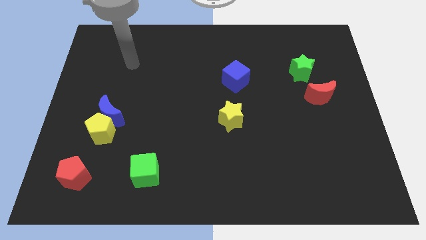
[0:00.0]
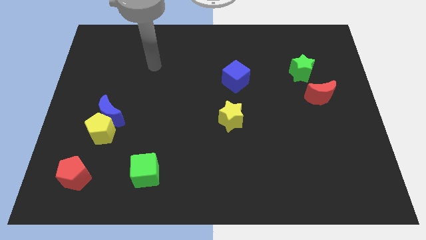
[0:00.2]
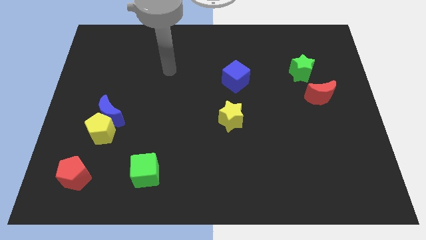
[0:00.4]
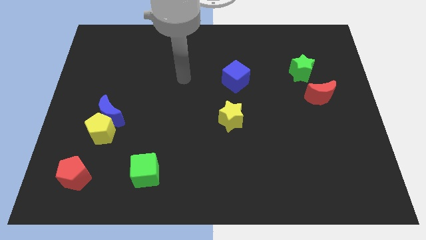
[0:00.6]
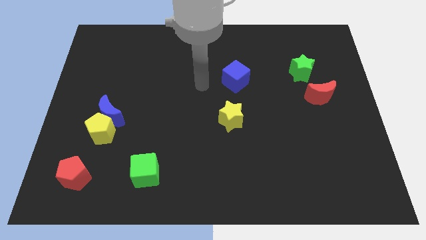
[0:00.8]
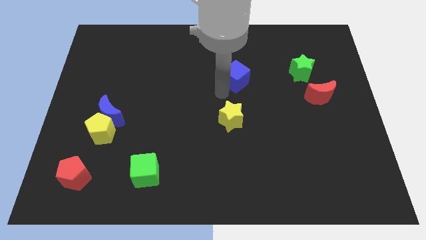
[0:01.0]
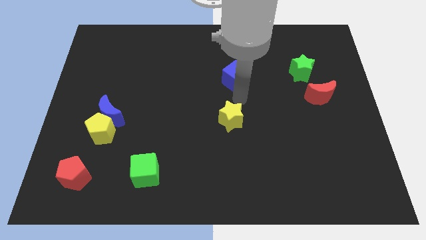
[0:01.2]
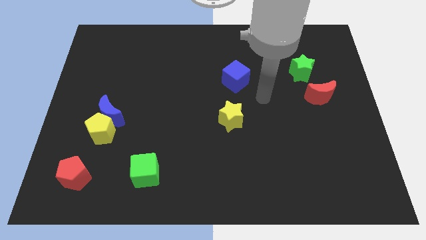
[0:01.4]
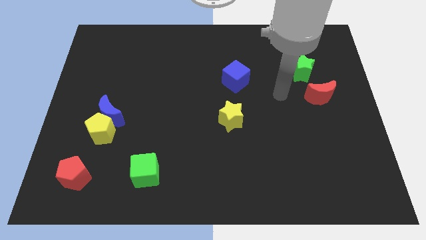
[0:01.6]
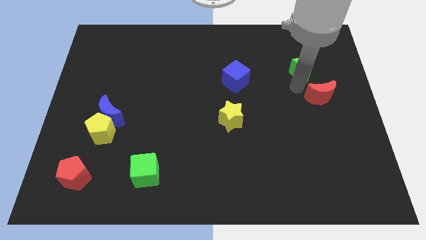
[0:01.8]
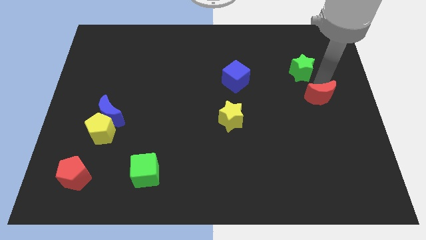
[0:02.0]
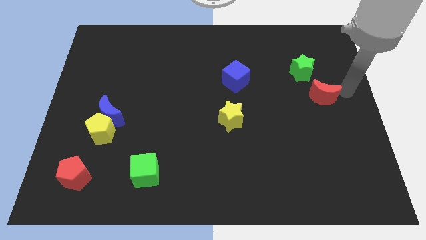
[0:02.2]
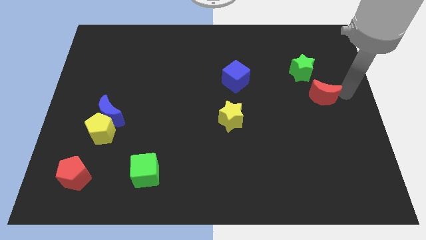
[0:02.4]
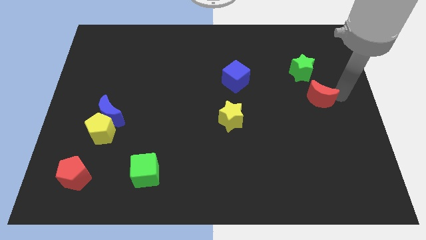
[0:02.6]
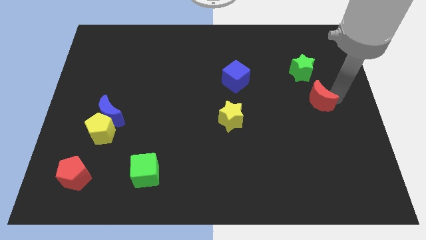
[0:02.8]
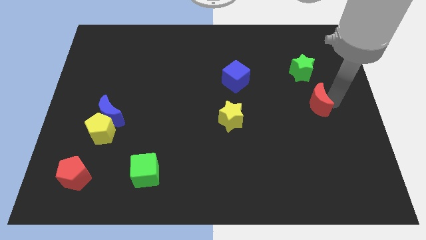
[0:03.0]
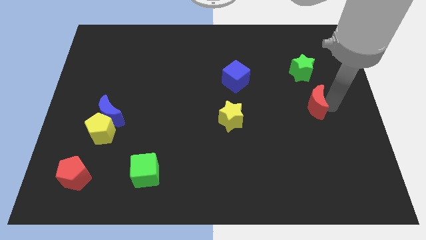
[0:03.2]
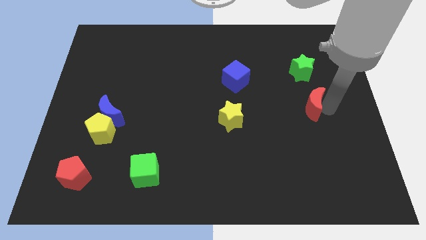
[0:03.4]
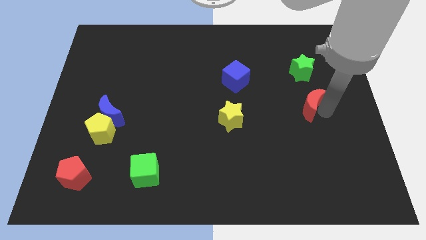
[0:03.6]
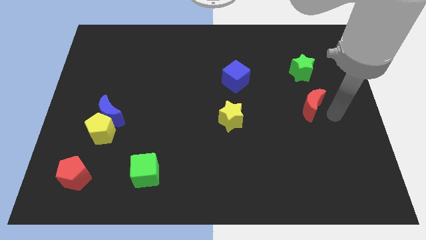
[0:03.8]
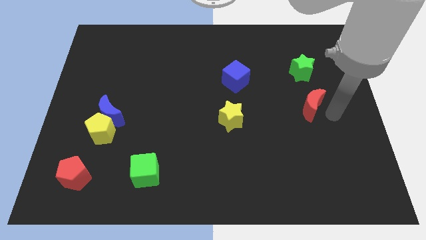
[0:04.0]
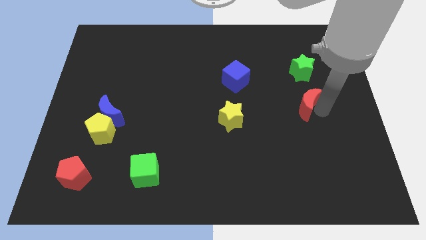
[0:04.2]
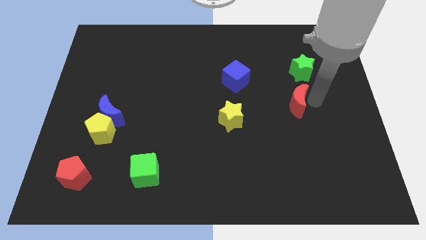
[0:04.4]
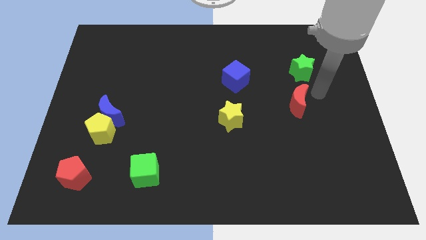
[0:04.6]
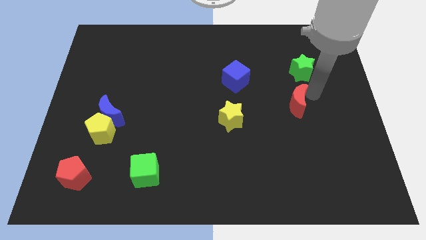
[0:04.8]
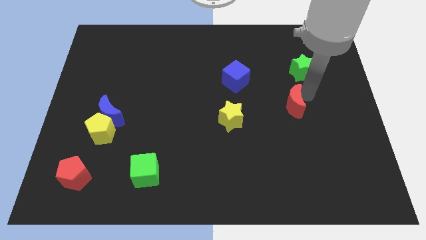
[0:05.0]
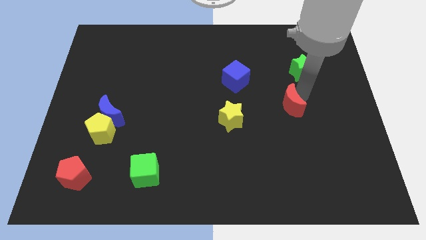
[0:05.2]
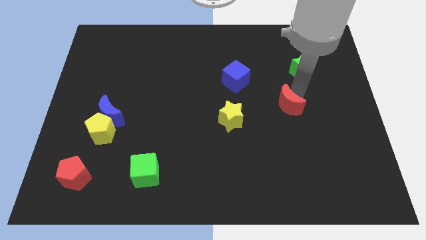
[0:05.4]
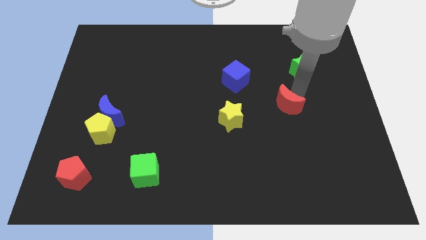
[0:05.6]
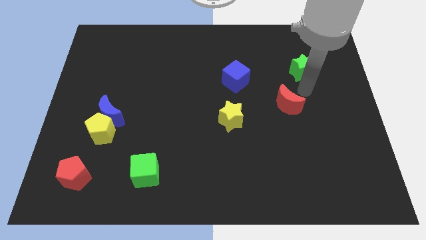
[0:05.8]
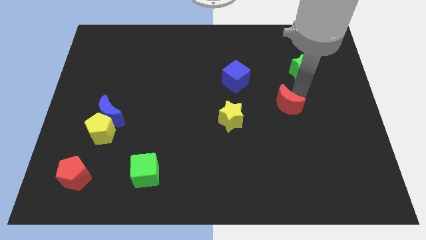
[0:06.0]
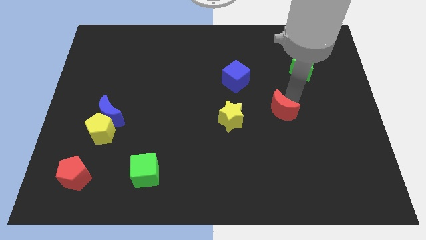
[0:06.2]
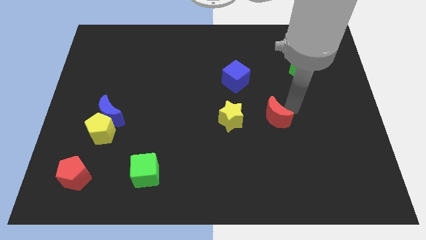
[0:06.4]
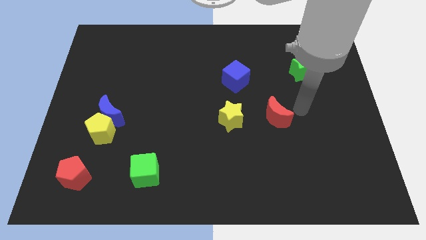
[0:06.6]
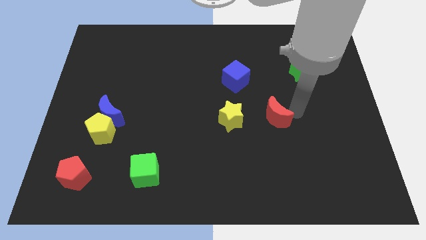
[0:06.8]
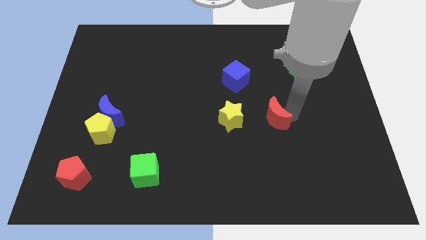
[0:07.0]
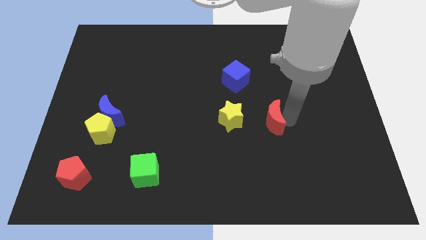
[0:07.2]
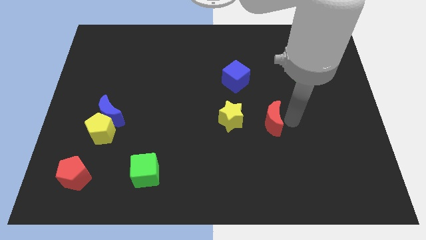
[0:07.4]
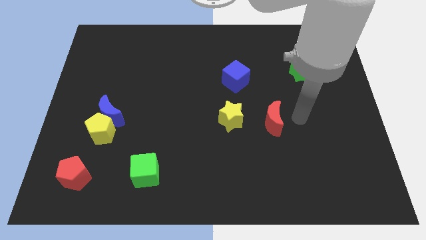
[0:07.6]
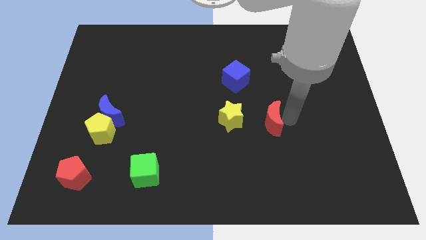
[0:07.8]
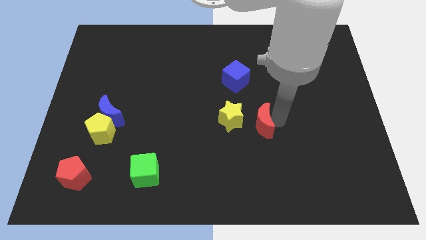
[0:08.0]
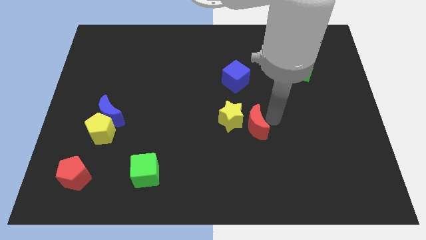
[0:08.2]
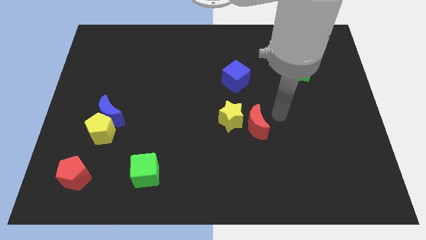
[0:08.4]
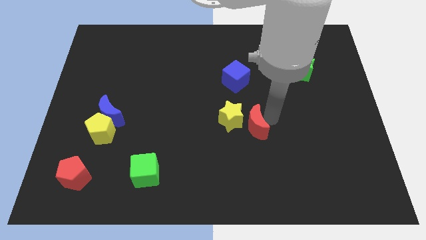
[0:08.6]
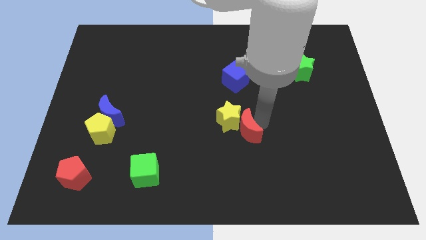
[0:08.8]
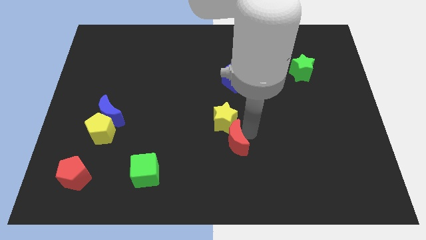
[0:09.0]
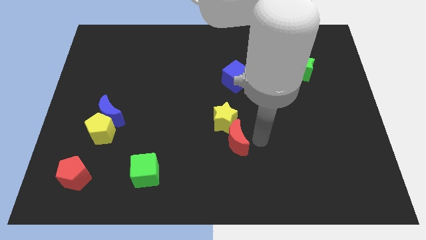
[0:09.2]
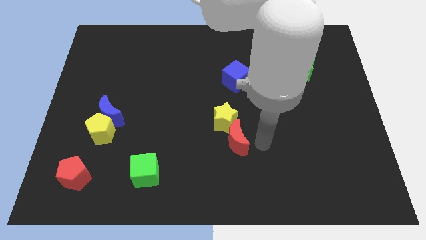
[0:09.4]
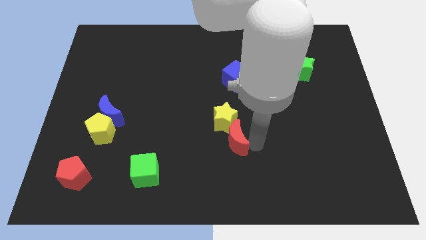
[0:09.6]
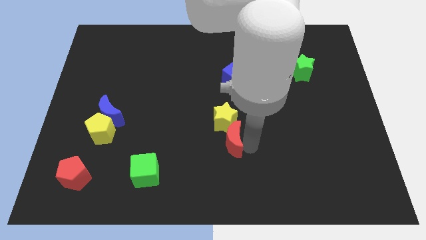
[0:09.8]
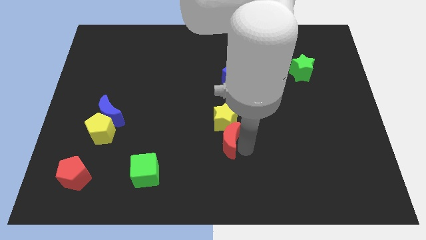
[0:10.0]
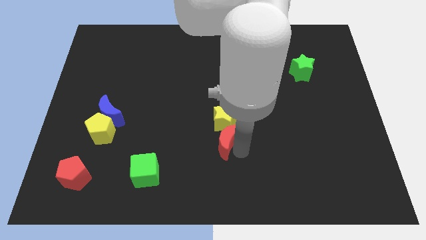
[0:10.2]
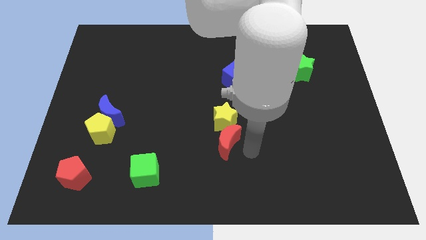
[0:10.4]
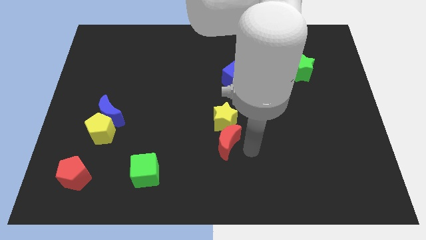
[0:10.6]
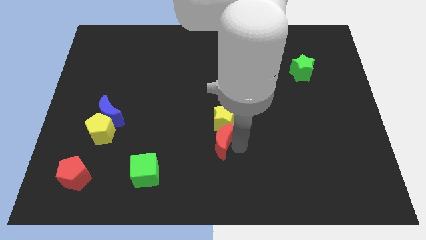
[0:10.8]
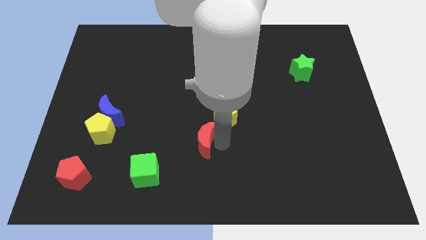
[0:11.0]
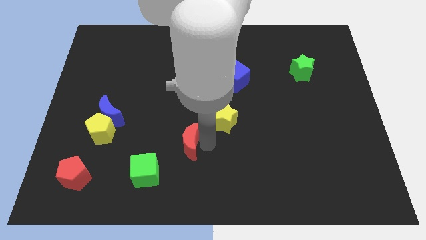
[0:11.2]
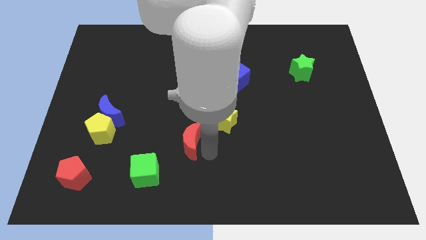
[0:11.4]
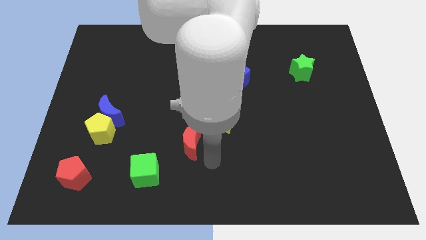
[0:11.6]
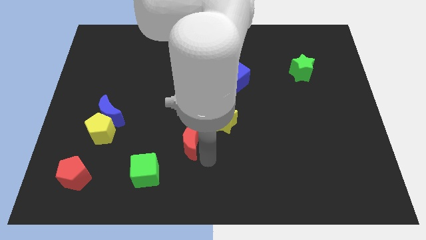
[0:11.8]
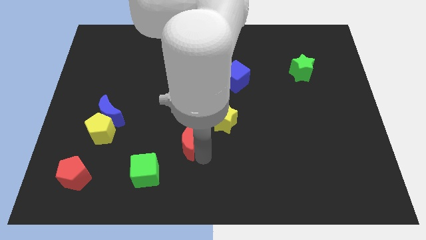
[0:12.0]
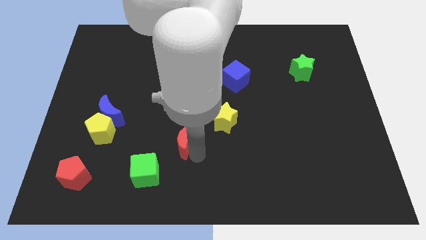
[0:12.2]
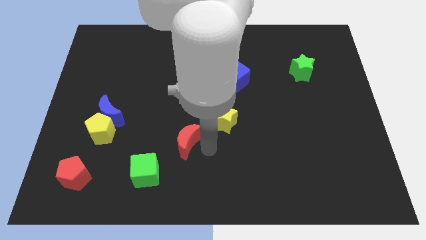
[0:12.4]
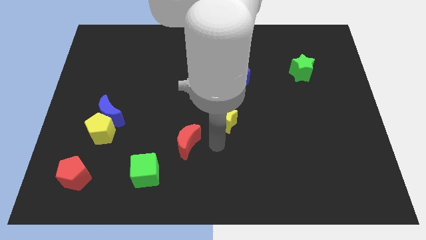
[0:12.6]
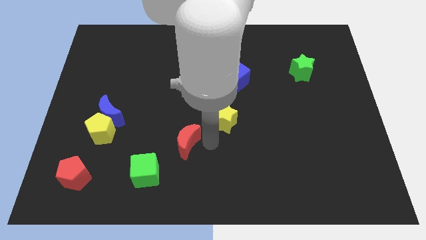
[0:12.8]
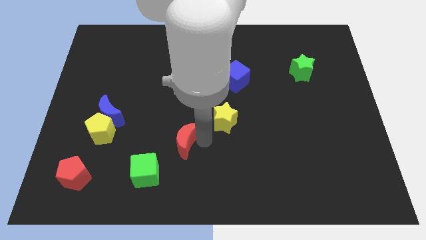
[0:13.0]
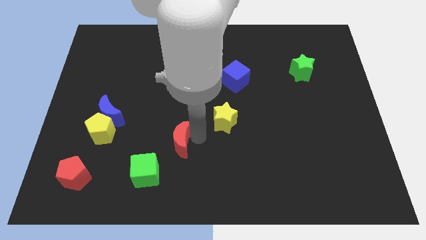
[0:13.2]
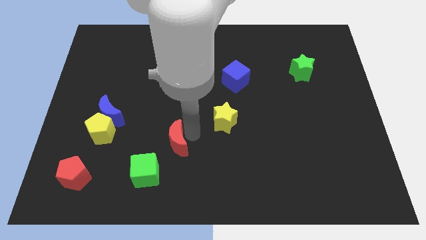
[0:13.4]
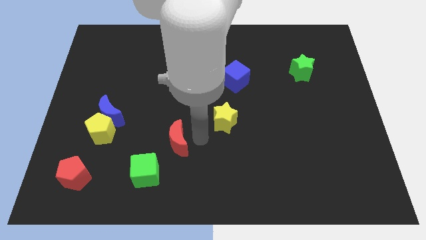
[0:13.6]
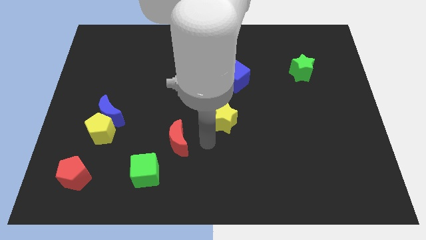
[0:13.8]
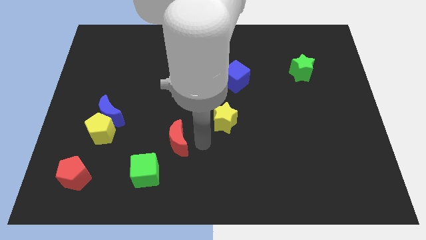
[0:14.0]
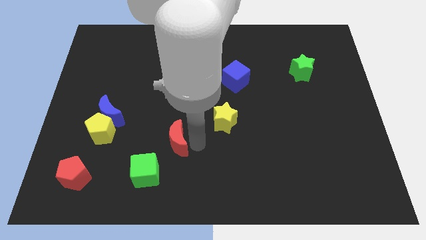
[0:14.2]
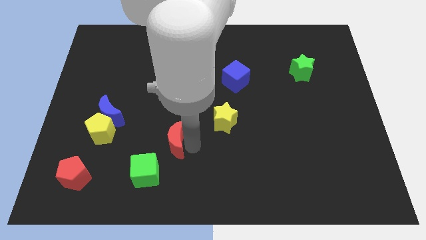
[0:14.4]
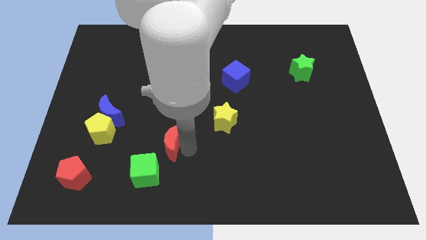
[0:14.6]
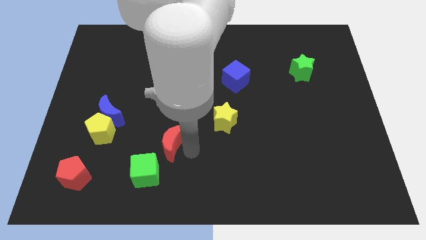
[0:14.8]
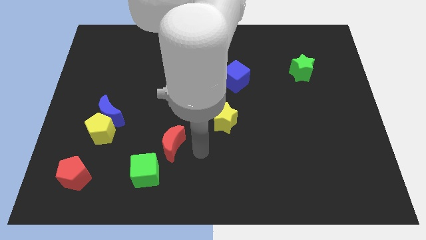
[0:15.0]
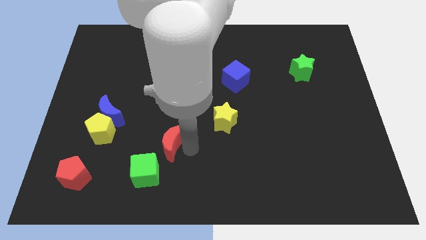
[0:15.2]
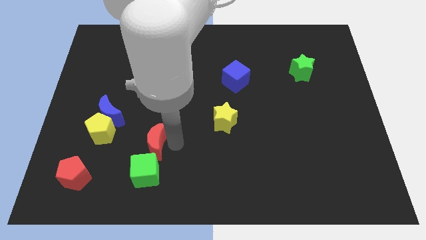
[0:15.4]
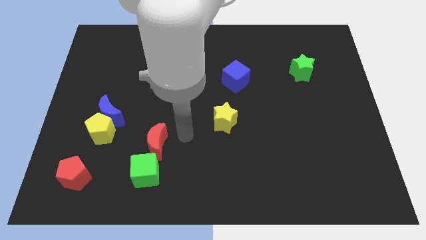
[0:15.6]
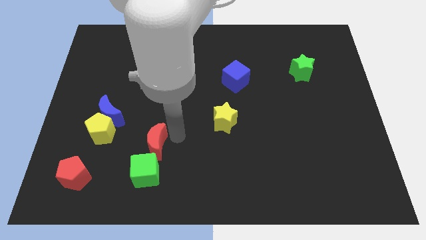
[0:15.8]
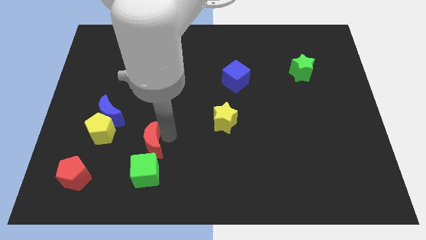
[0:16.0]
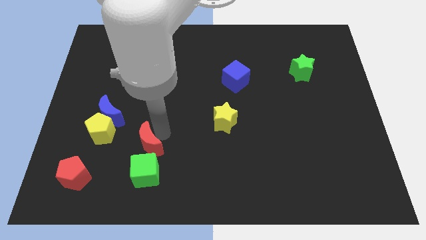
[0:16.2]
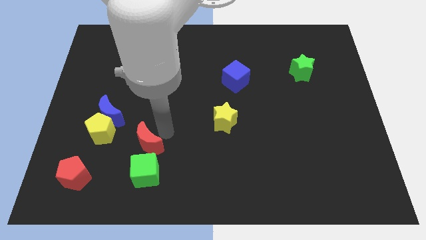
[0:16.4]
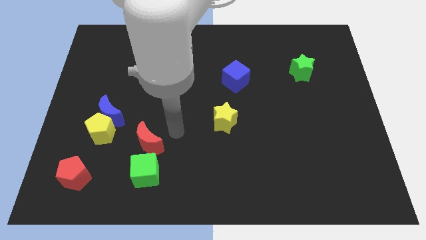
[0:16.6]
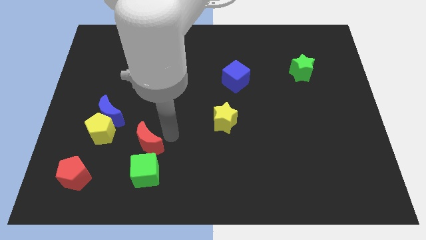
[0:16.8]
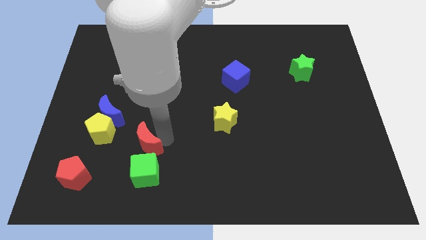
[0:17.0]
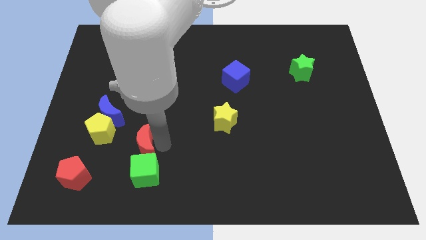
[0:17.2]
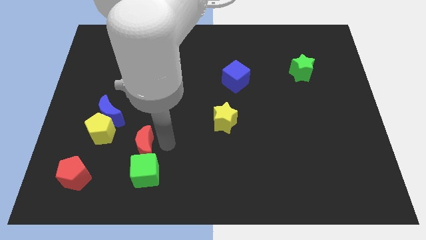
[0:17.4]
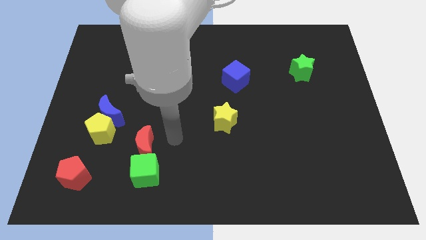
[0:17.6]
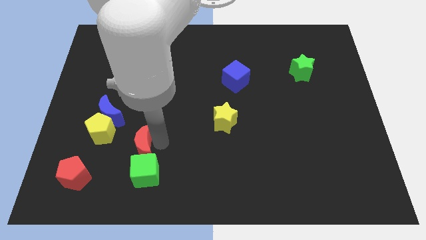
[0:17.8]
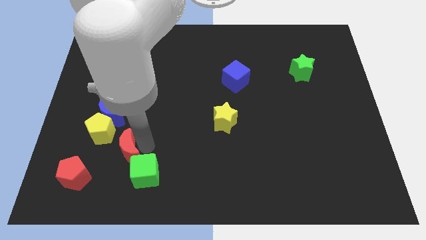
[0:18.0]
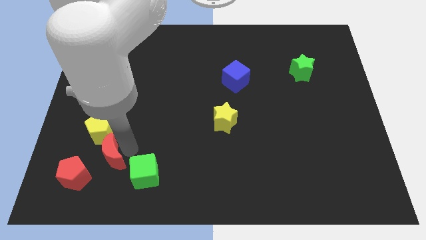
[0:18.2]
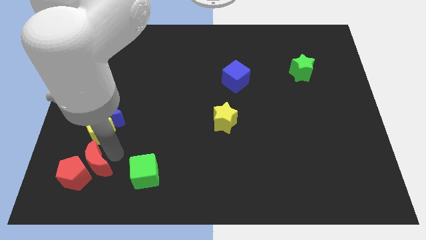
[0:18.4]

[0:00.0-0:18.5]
put the red moon towards the red pentagon
